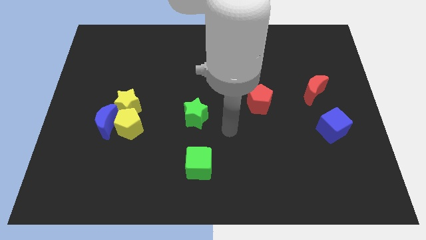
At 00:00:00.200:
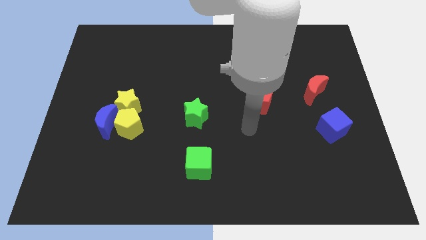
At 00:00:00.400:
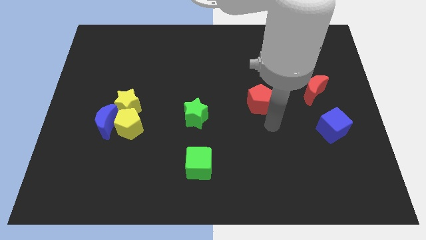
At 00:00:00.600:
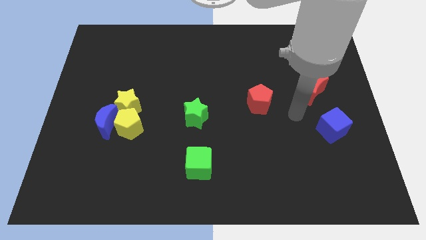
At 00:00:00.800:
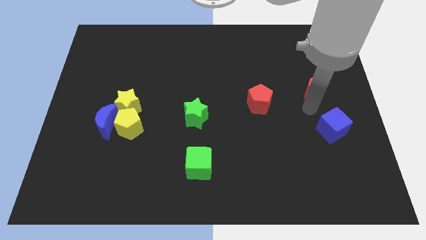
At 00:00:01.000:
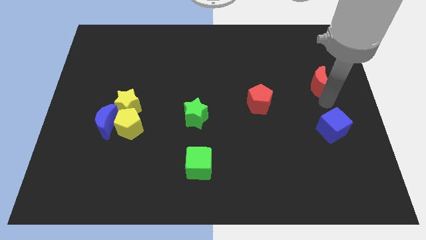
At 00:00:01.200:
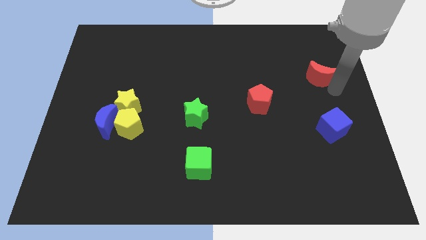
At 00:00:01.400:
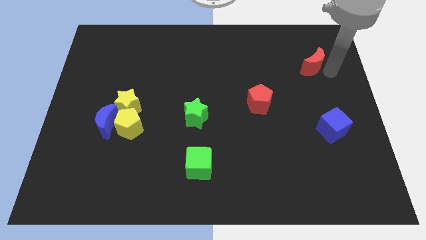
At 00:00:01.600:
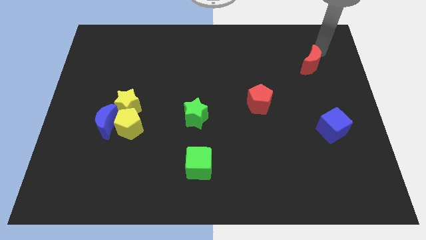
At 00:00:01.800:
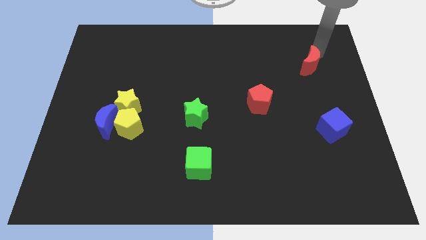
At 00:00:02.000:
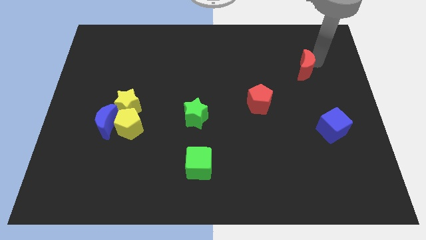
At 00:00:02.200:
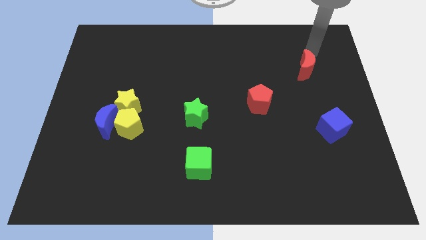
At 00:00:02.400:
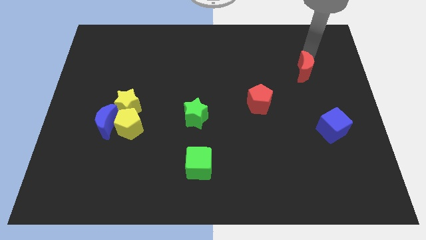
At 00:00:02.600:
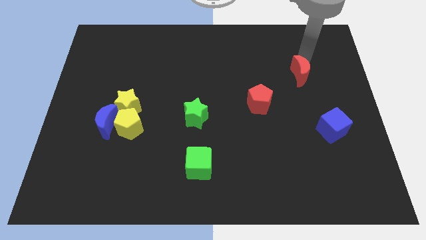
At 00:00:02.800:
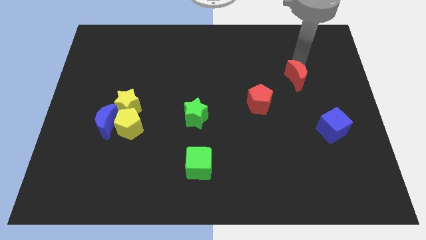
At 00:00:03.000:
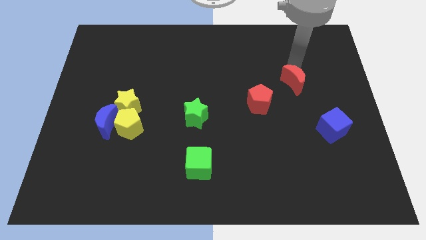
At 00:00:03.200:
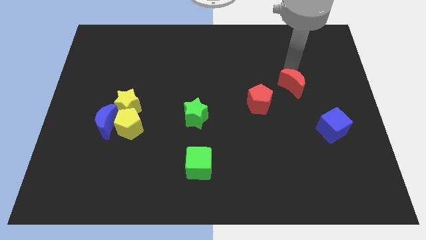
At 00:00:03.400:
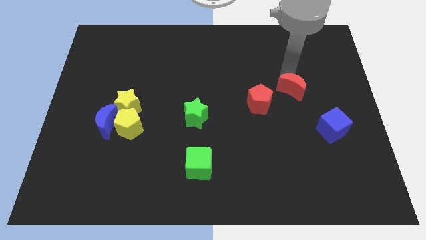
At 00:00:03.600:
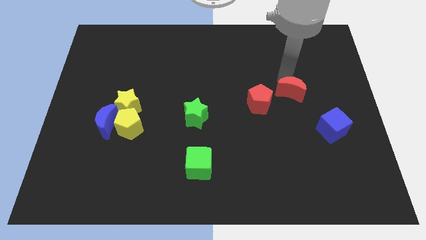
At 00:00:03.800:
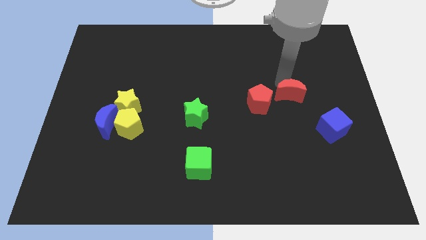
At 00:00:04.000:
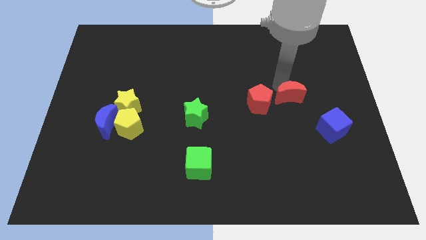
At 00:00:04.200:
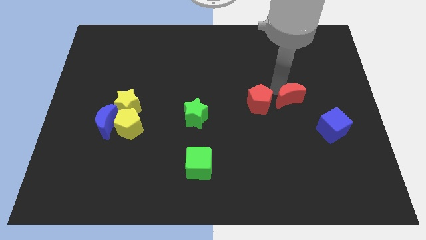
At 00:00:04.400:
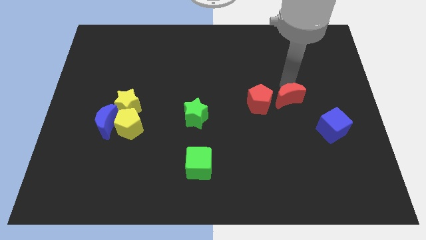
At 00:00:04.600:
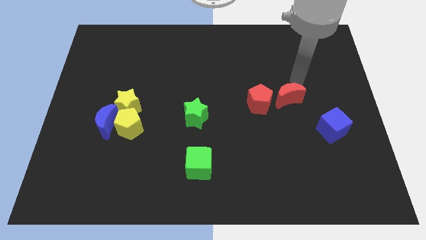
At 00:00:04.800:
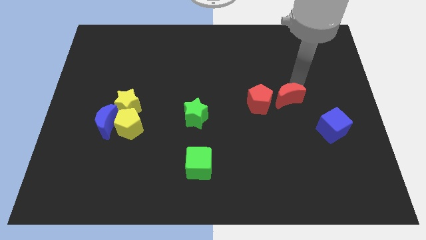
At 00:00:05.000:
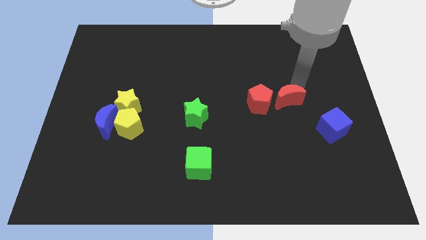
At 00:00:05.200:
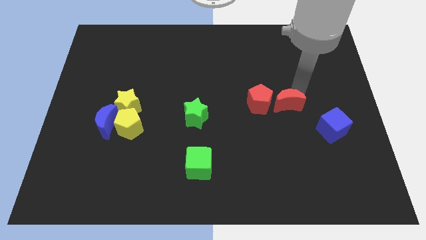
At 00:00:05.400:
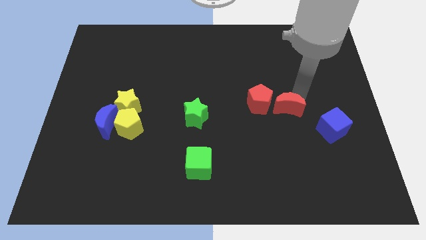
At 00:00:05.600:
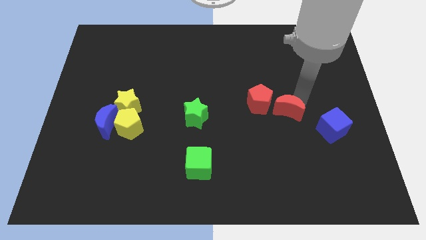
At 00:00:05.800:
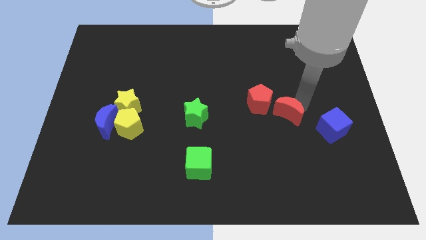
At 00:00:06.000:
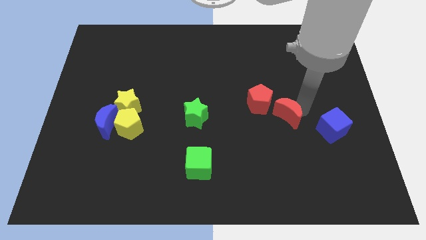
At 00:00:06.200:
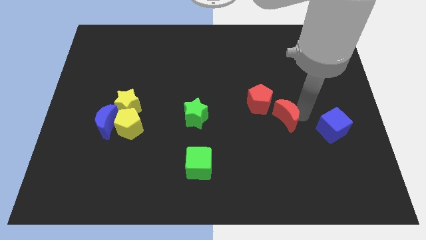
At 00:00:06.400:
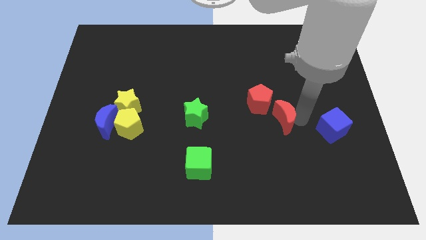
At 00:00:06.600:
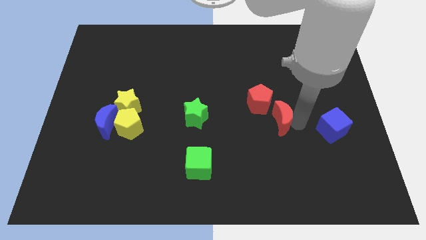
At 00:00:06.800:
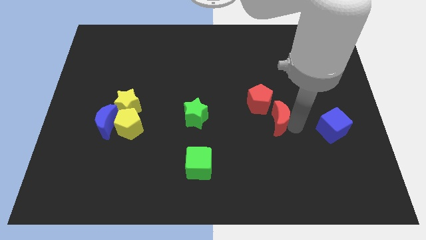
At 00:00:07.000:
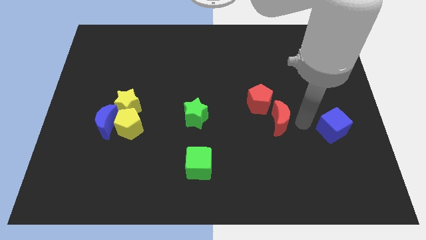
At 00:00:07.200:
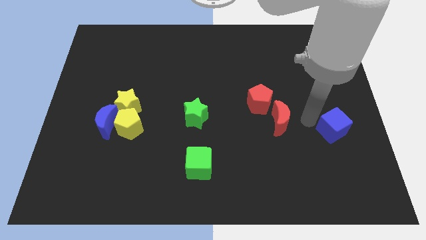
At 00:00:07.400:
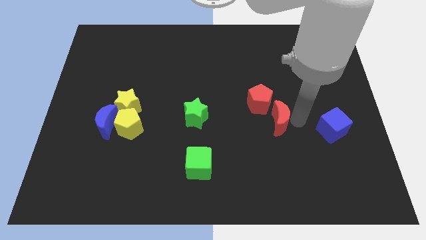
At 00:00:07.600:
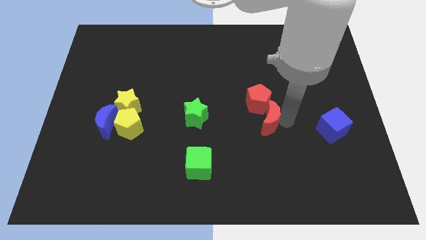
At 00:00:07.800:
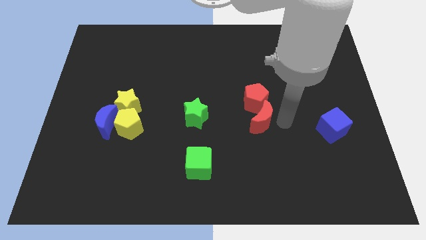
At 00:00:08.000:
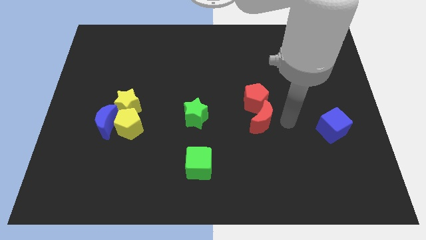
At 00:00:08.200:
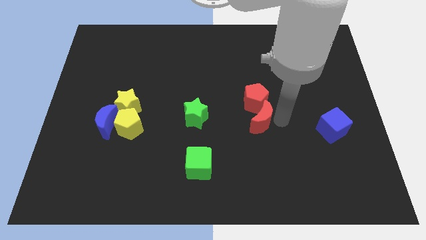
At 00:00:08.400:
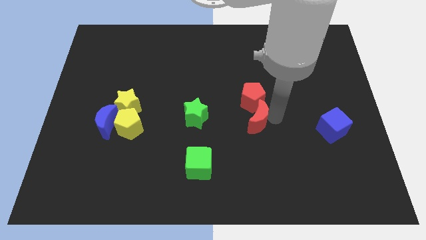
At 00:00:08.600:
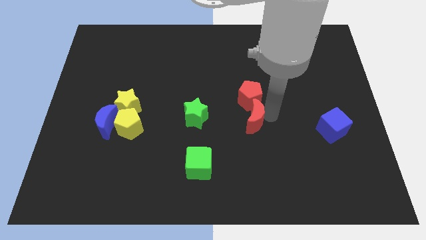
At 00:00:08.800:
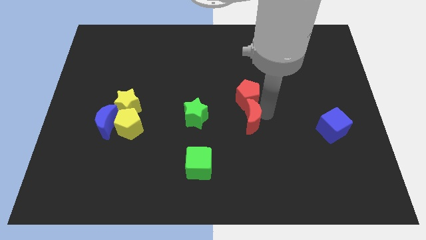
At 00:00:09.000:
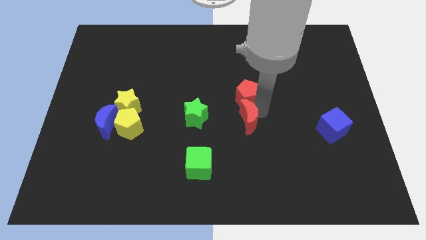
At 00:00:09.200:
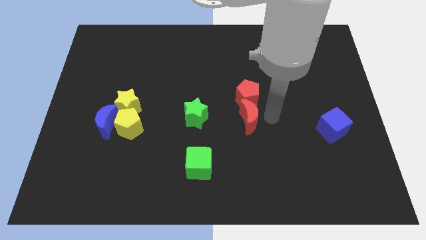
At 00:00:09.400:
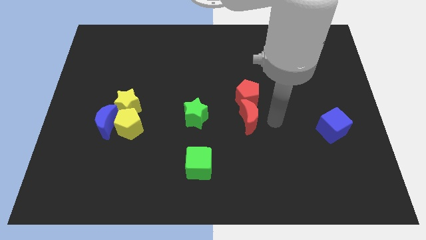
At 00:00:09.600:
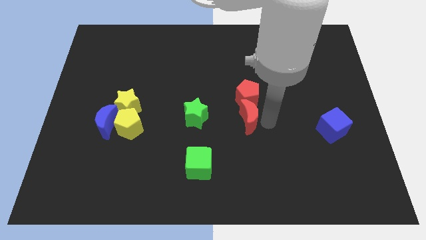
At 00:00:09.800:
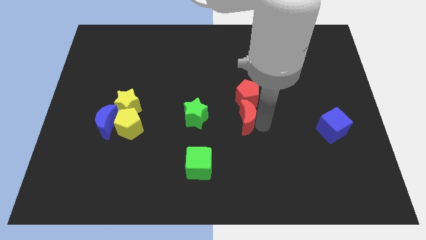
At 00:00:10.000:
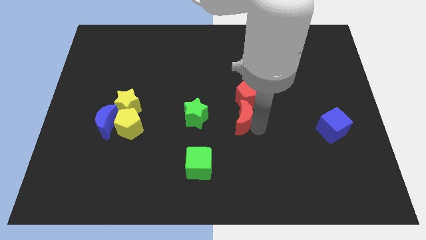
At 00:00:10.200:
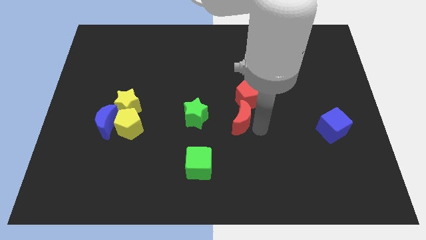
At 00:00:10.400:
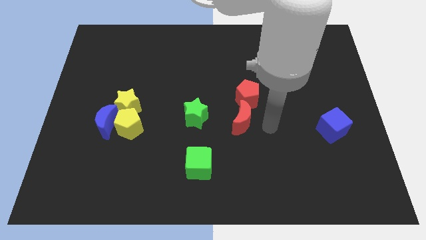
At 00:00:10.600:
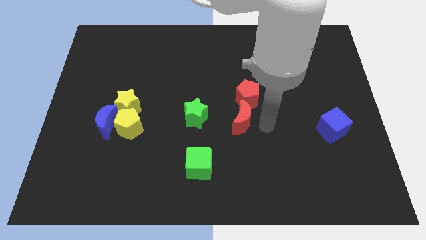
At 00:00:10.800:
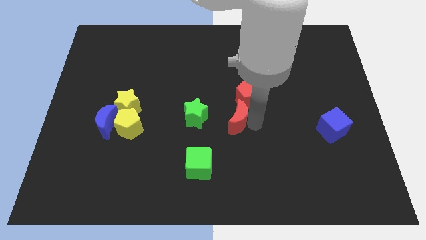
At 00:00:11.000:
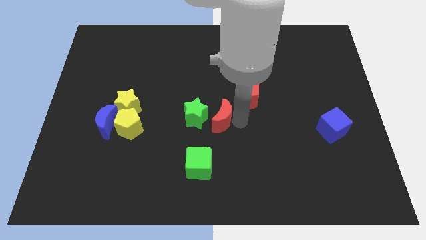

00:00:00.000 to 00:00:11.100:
slide the red moon to the green star

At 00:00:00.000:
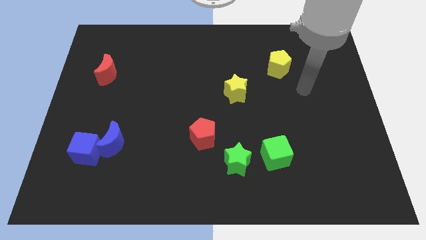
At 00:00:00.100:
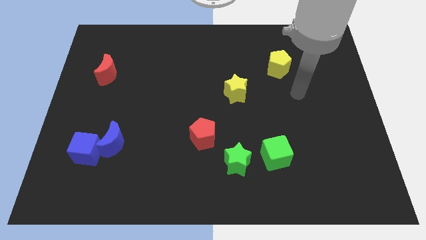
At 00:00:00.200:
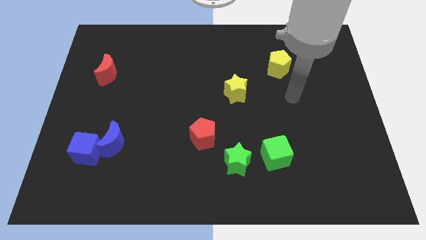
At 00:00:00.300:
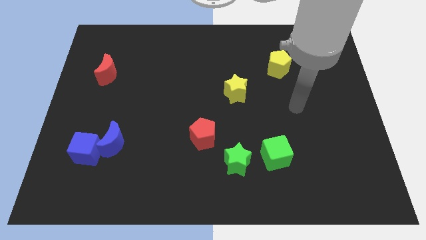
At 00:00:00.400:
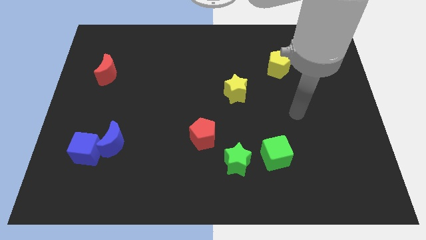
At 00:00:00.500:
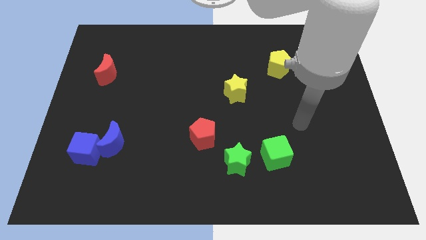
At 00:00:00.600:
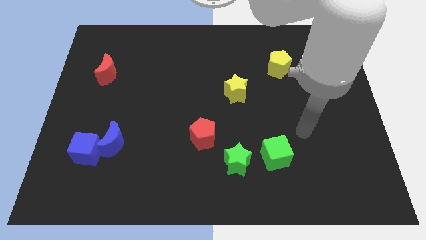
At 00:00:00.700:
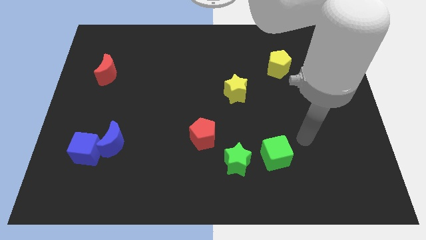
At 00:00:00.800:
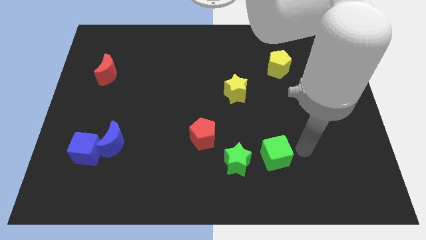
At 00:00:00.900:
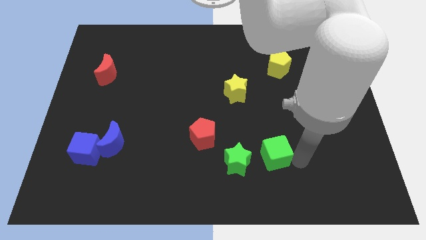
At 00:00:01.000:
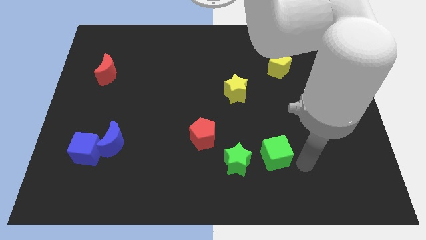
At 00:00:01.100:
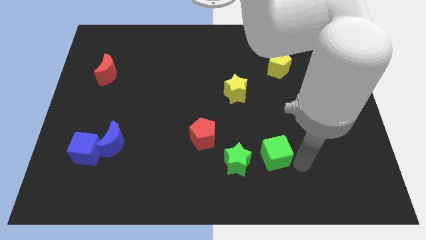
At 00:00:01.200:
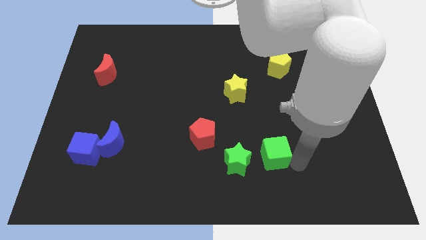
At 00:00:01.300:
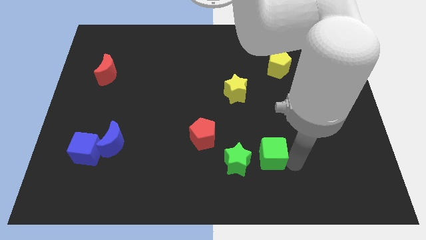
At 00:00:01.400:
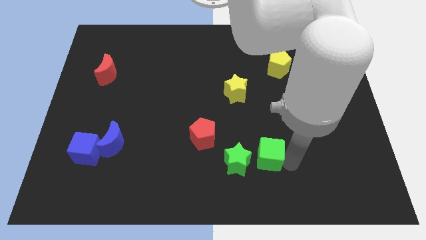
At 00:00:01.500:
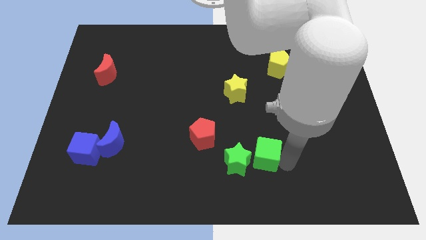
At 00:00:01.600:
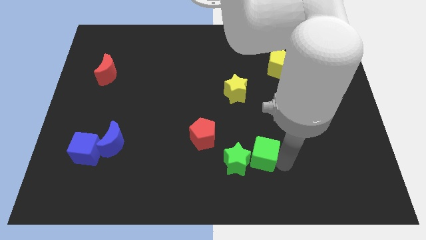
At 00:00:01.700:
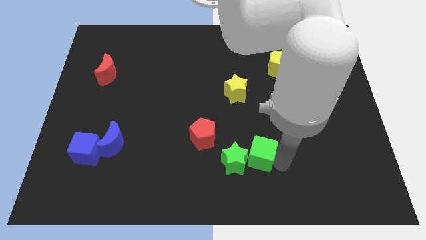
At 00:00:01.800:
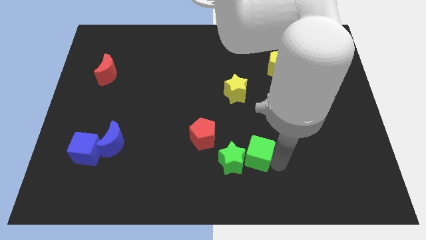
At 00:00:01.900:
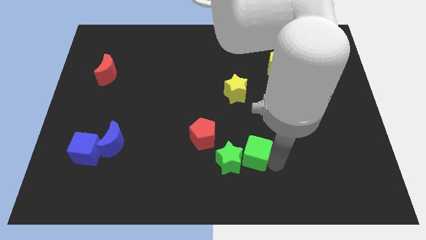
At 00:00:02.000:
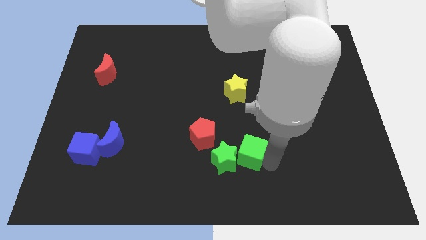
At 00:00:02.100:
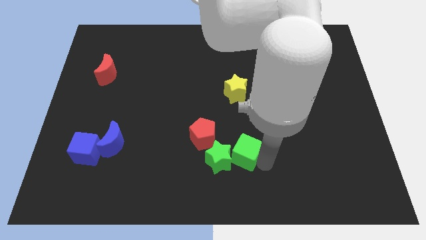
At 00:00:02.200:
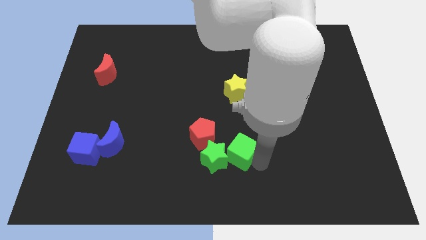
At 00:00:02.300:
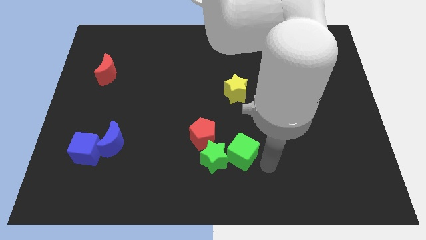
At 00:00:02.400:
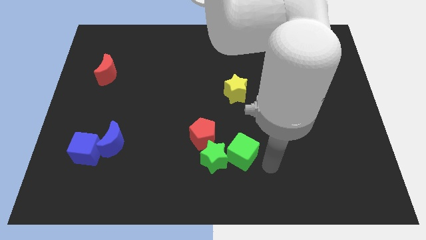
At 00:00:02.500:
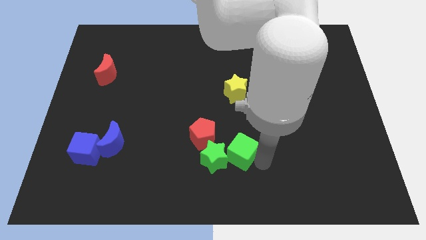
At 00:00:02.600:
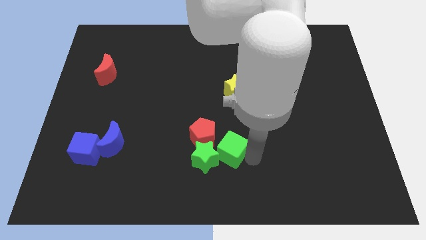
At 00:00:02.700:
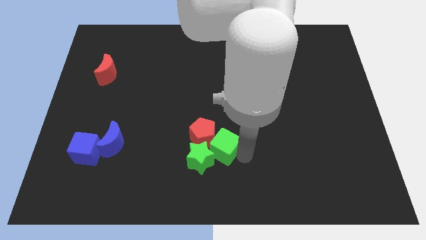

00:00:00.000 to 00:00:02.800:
slide the green cube close to the red pentagon
